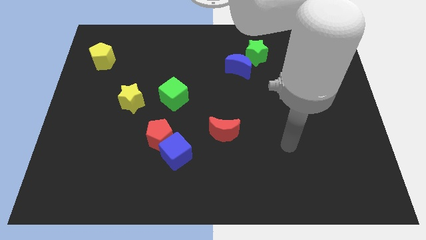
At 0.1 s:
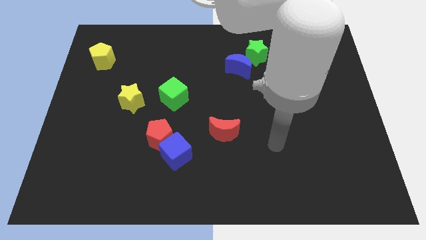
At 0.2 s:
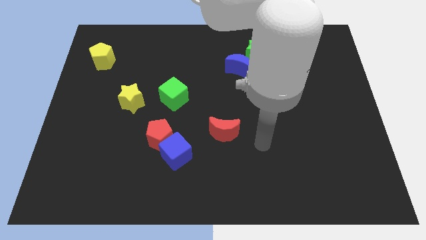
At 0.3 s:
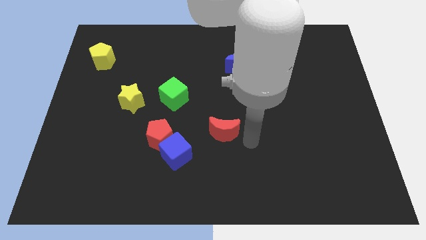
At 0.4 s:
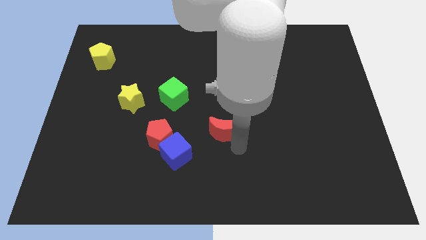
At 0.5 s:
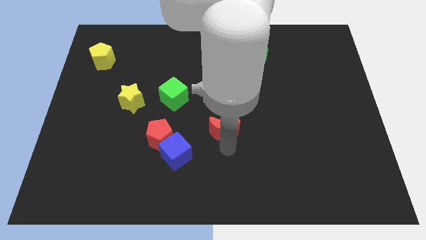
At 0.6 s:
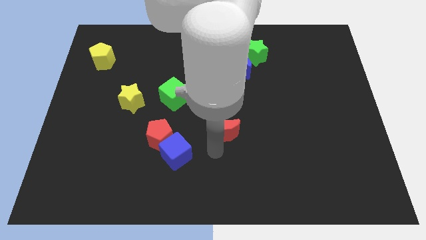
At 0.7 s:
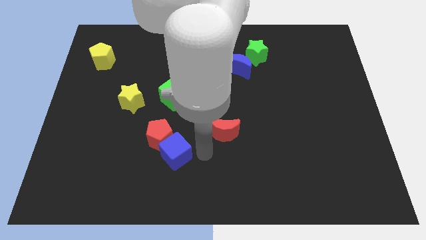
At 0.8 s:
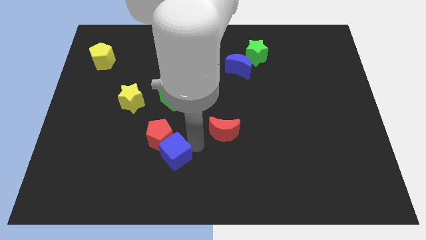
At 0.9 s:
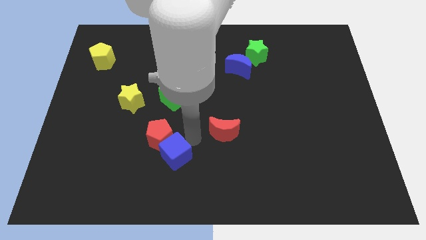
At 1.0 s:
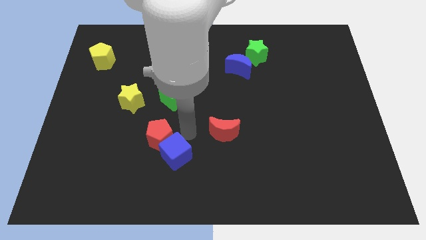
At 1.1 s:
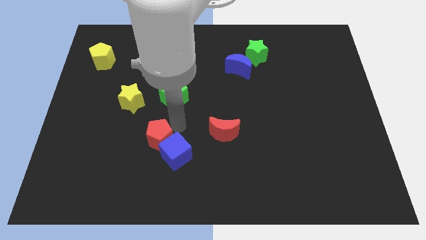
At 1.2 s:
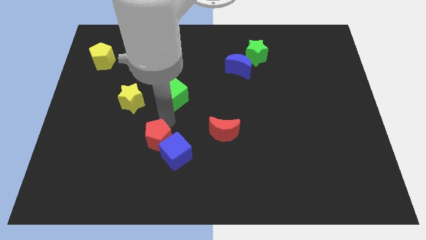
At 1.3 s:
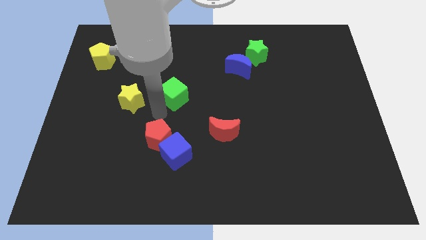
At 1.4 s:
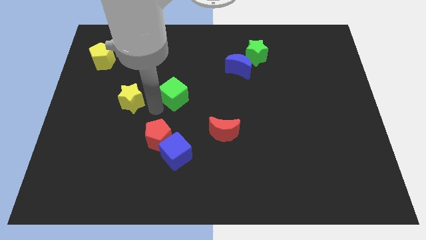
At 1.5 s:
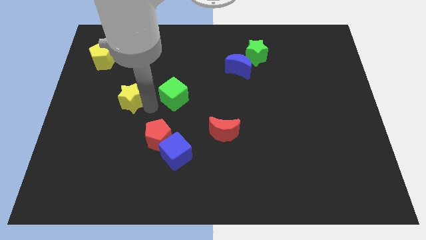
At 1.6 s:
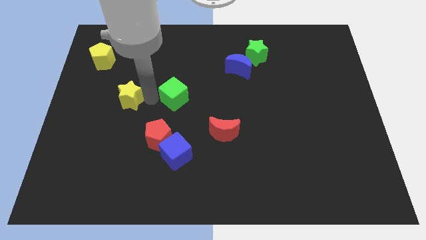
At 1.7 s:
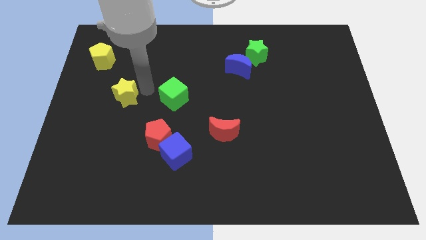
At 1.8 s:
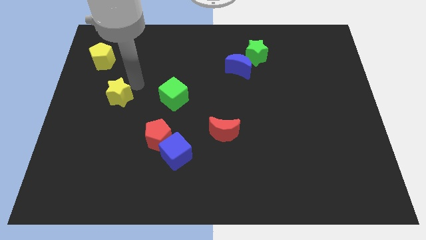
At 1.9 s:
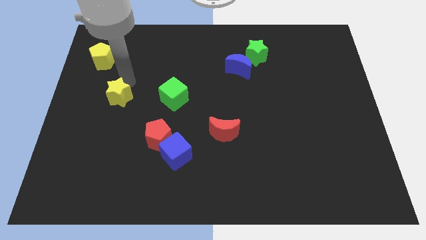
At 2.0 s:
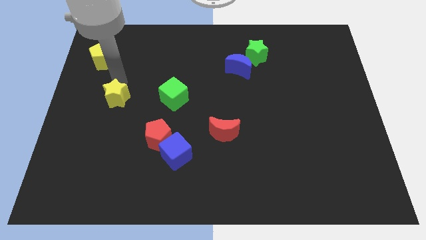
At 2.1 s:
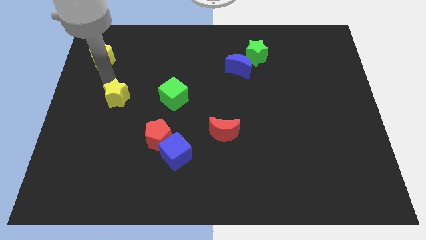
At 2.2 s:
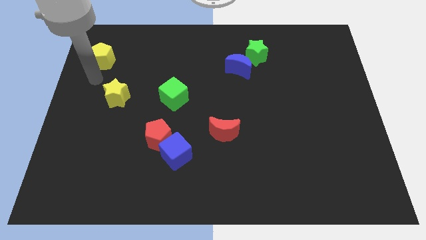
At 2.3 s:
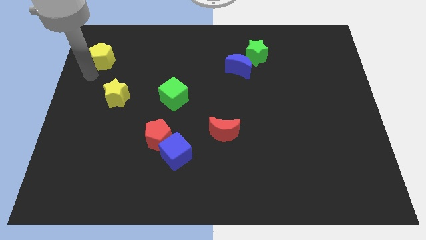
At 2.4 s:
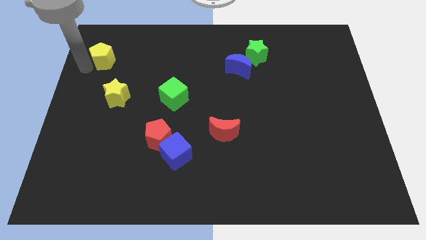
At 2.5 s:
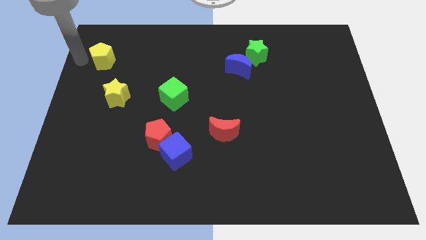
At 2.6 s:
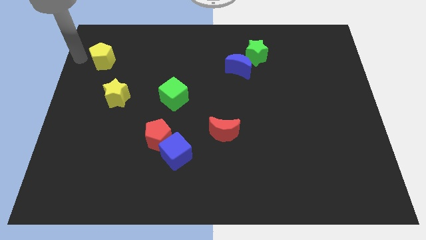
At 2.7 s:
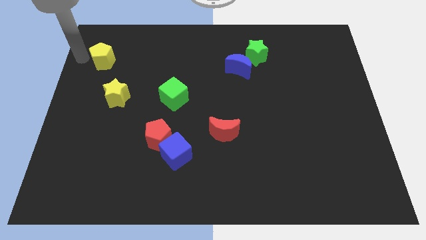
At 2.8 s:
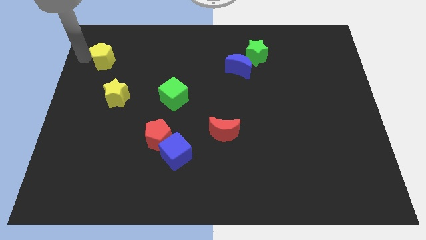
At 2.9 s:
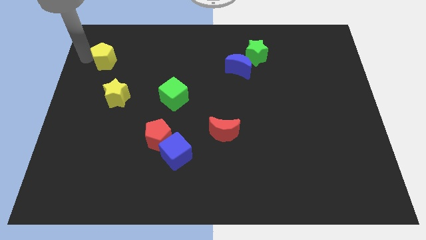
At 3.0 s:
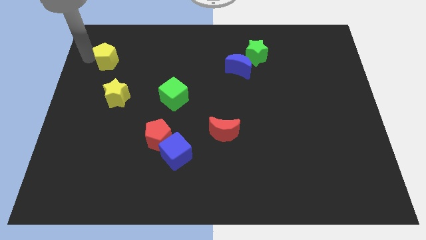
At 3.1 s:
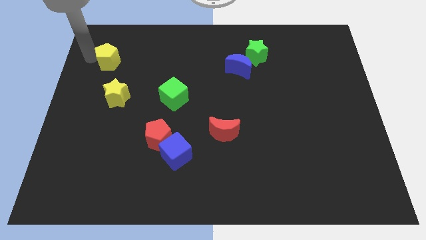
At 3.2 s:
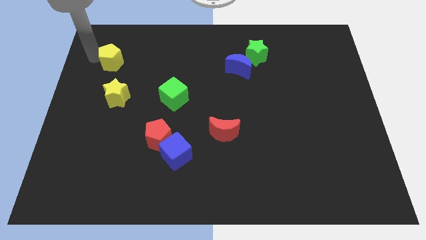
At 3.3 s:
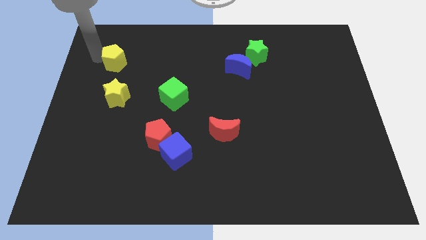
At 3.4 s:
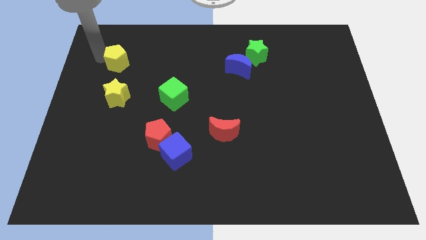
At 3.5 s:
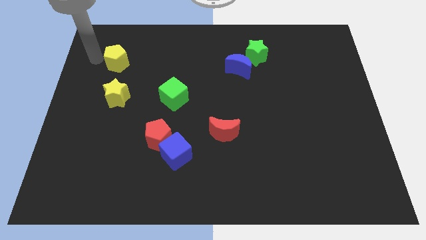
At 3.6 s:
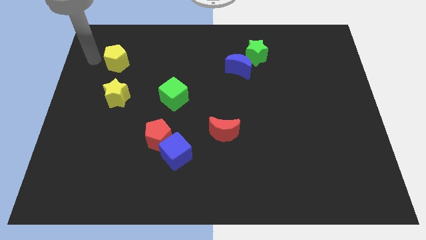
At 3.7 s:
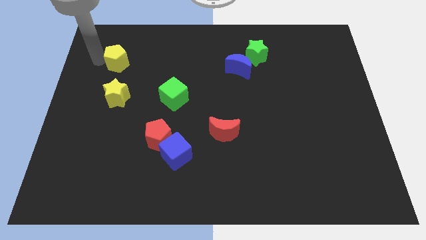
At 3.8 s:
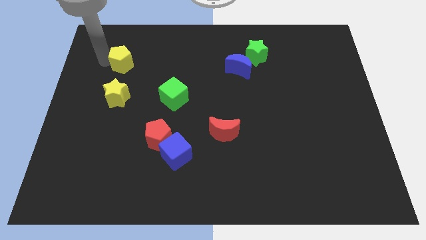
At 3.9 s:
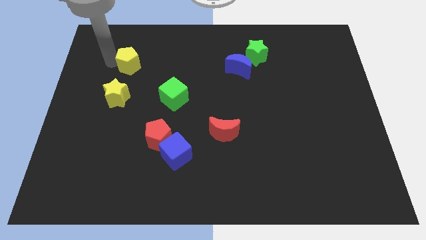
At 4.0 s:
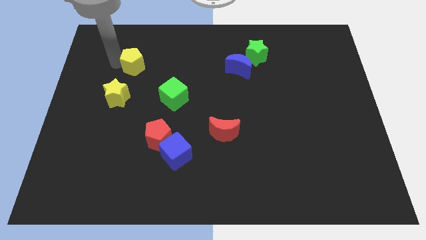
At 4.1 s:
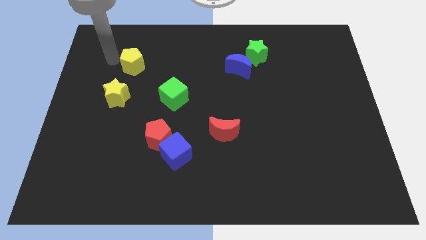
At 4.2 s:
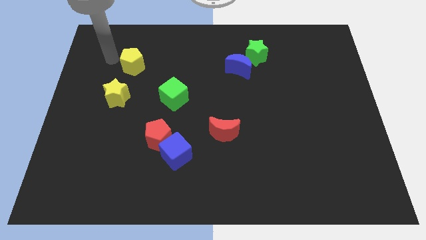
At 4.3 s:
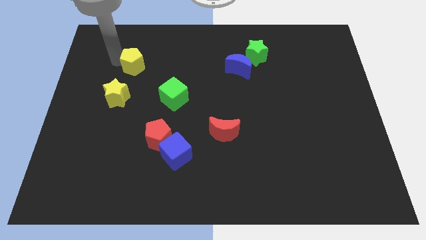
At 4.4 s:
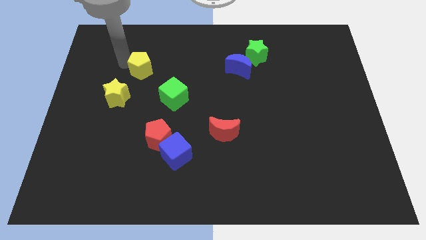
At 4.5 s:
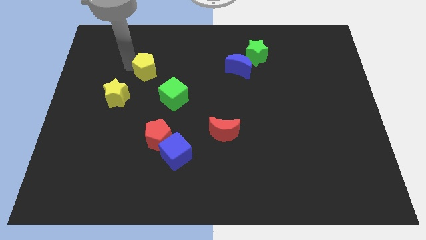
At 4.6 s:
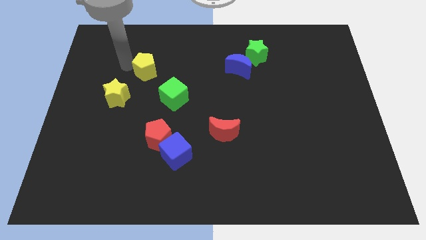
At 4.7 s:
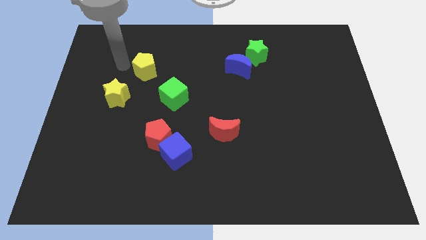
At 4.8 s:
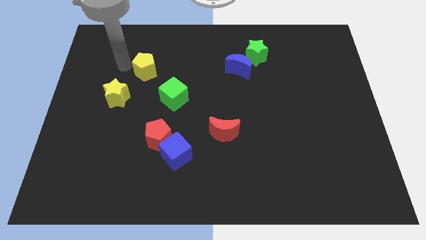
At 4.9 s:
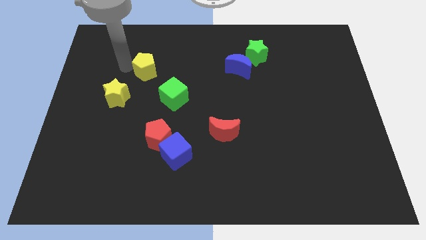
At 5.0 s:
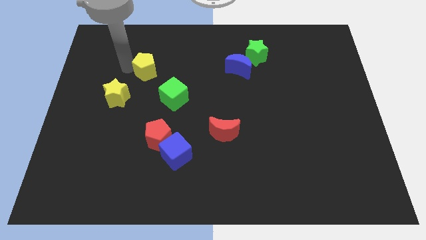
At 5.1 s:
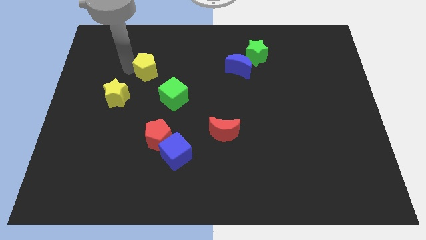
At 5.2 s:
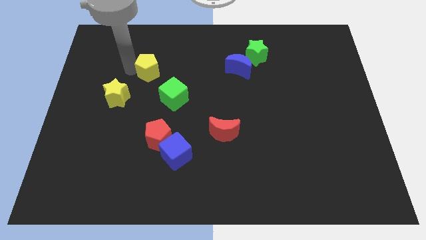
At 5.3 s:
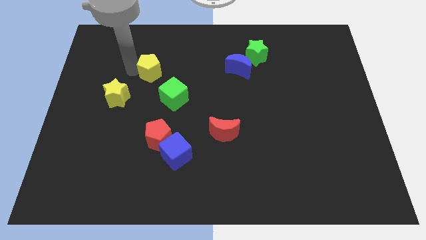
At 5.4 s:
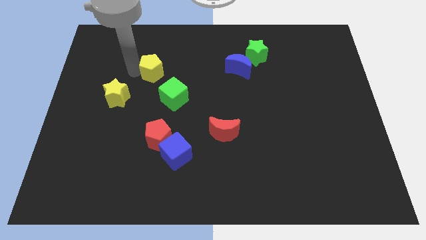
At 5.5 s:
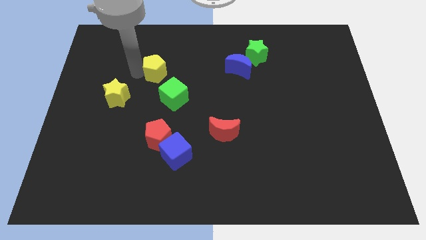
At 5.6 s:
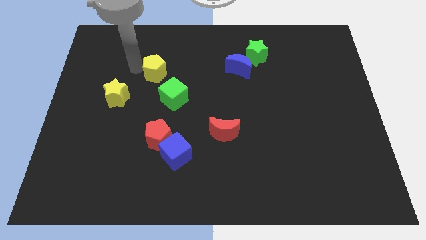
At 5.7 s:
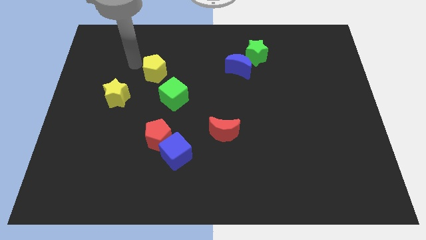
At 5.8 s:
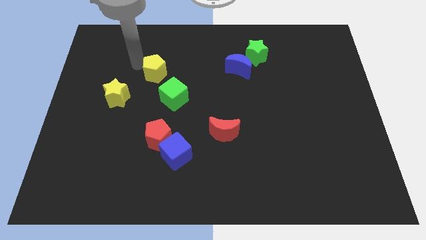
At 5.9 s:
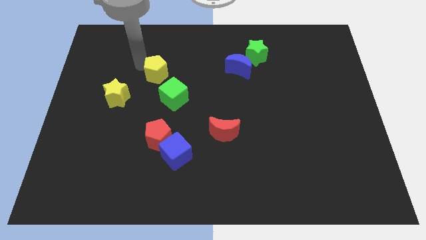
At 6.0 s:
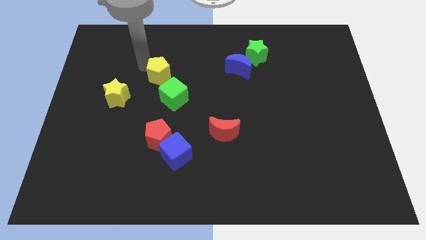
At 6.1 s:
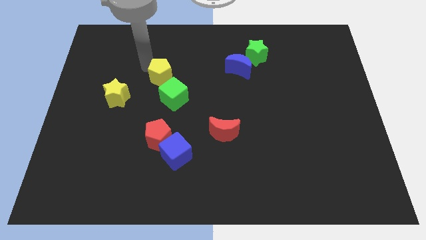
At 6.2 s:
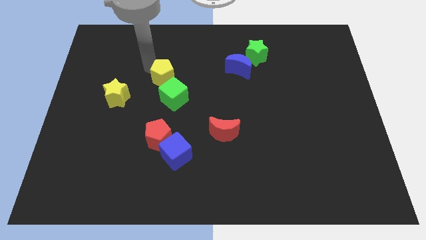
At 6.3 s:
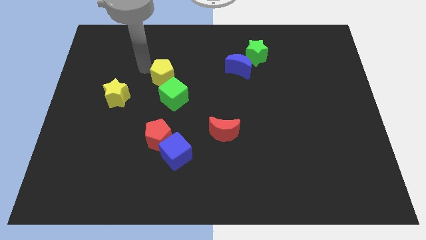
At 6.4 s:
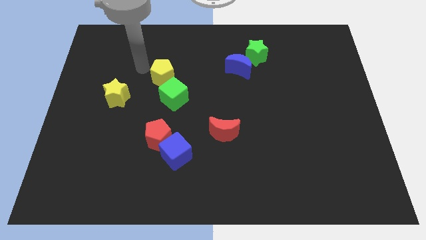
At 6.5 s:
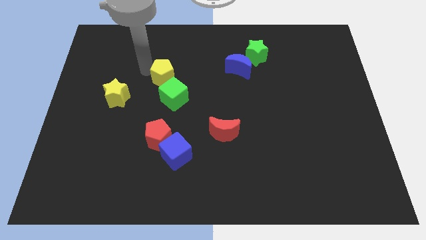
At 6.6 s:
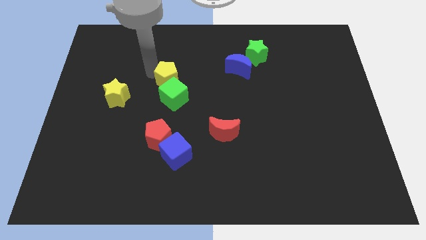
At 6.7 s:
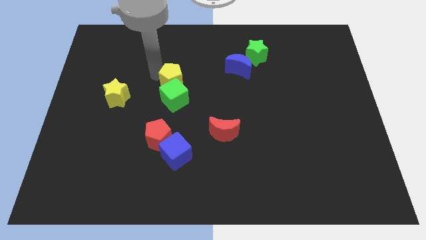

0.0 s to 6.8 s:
slide the yellow pentagon to the center
